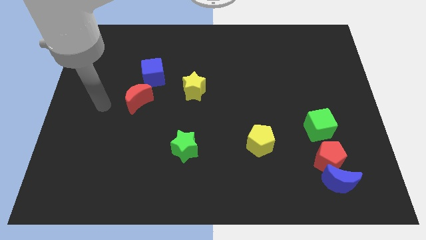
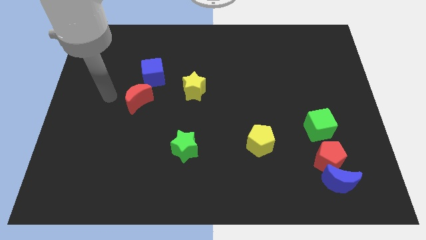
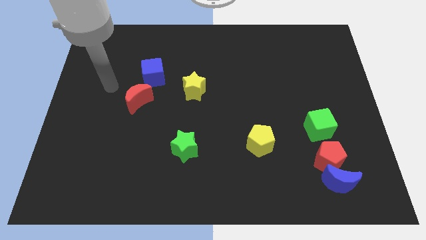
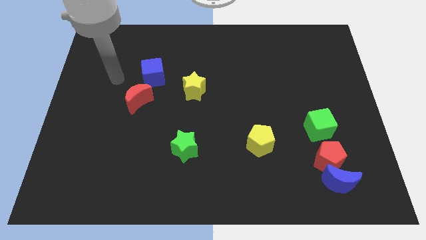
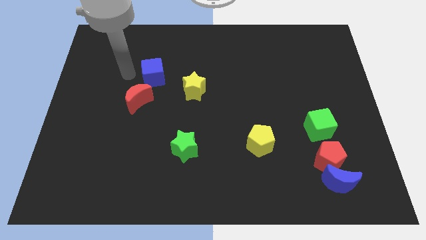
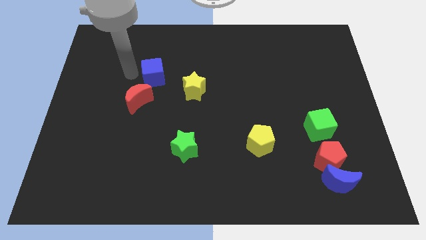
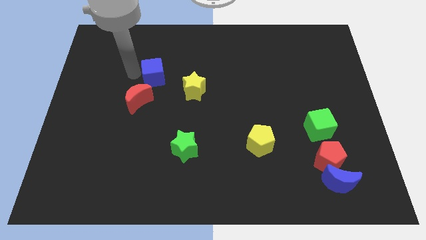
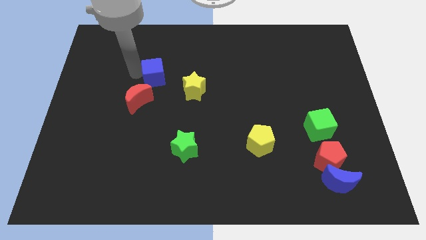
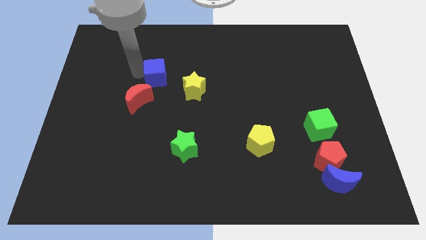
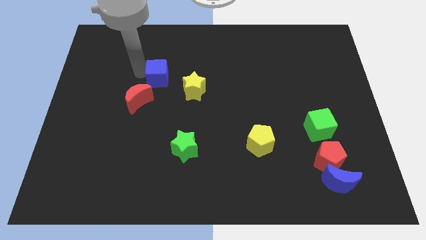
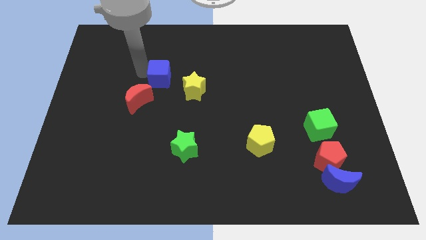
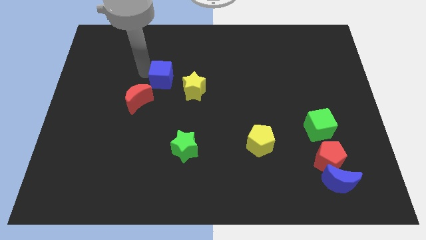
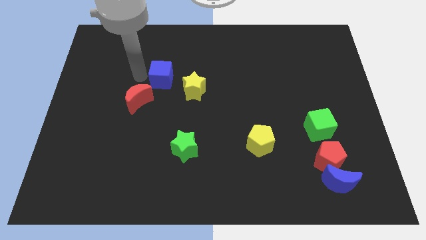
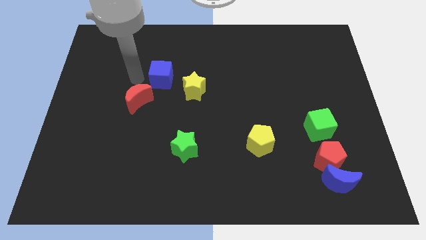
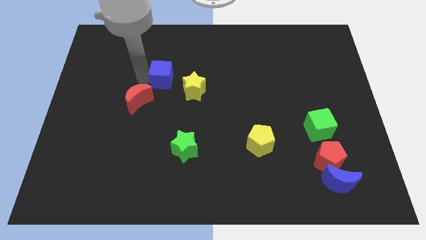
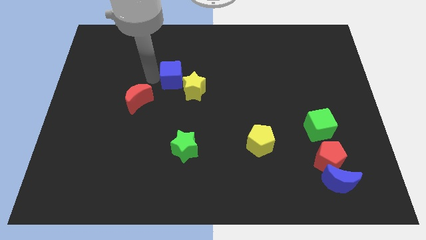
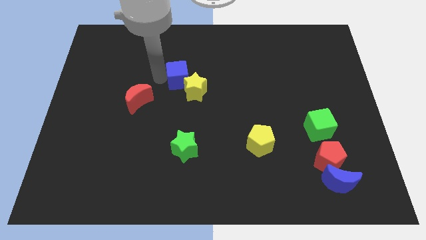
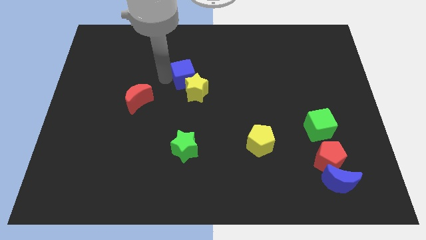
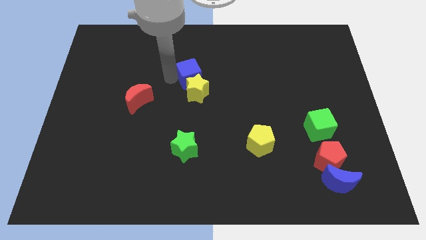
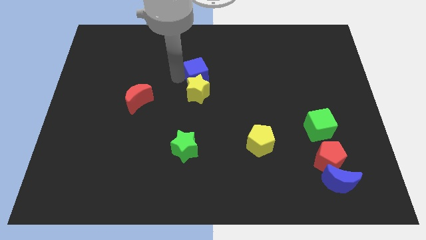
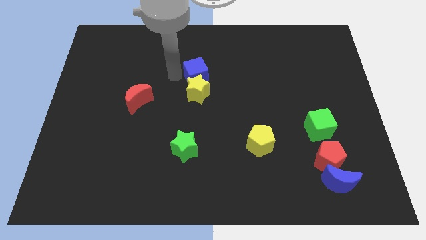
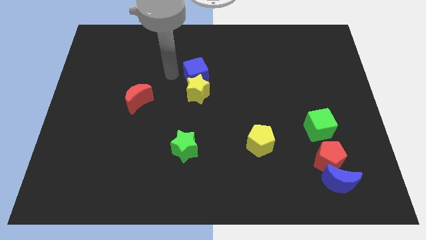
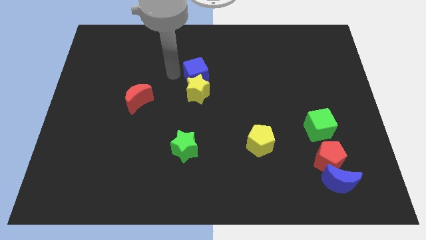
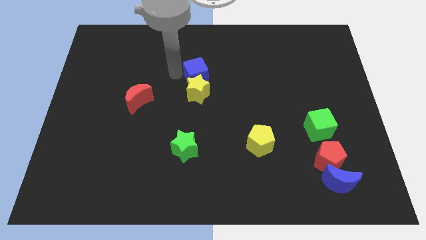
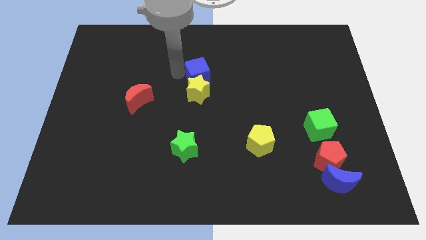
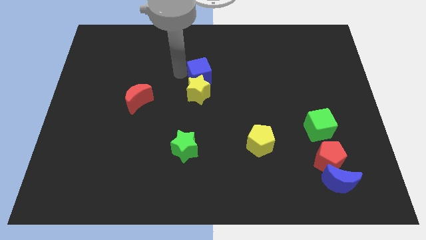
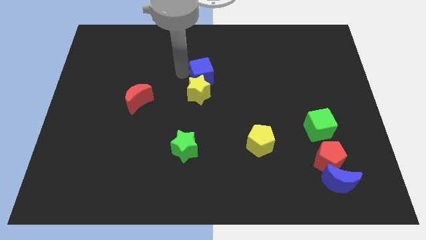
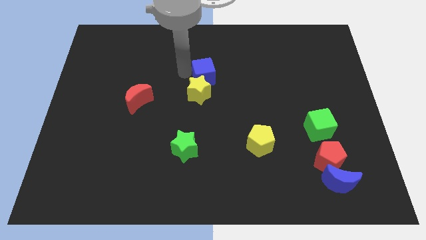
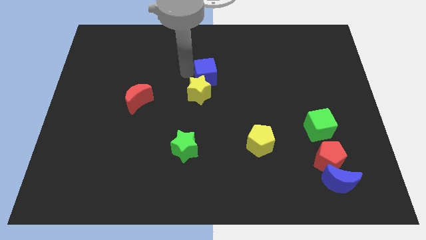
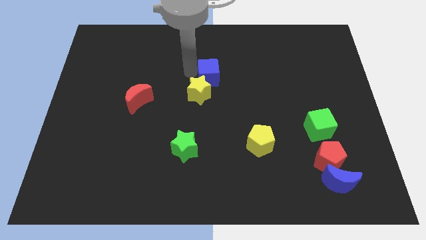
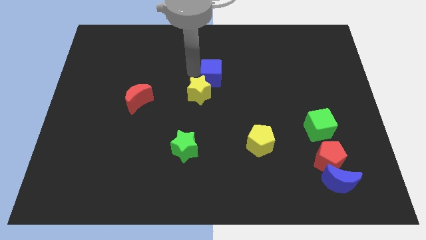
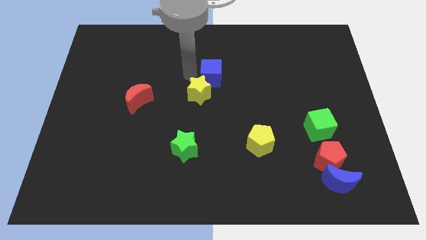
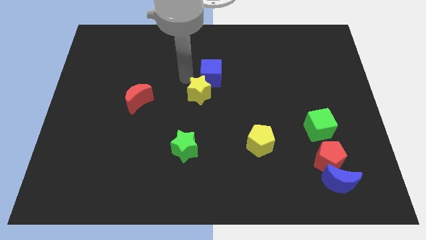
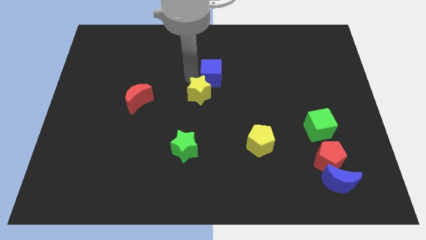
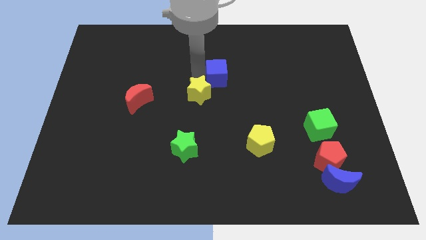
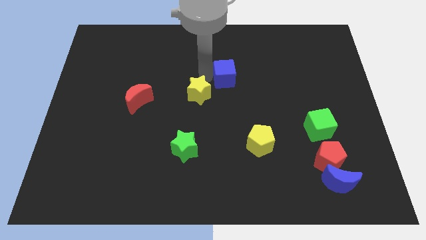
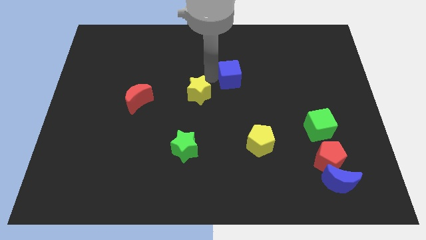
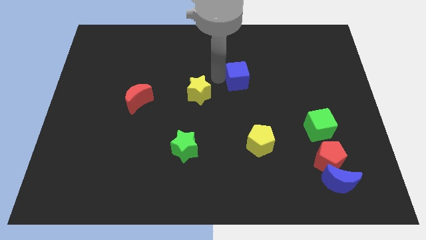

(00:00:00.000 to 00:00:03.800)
move the blue cube right

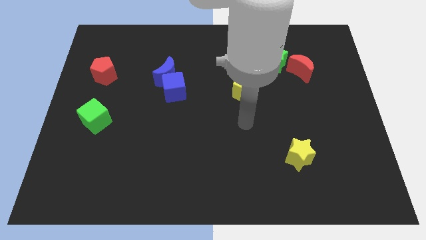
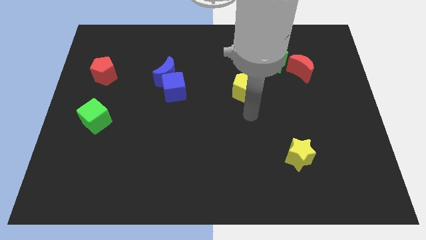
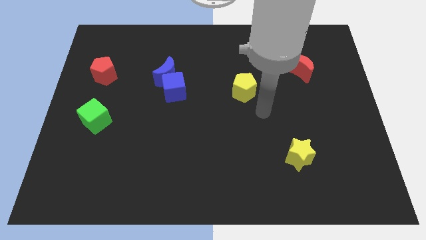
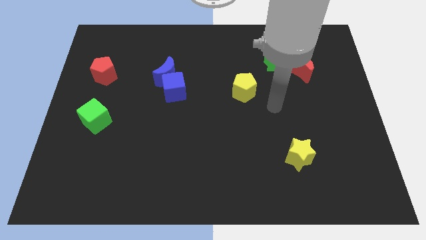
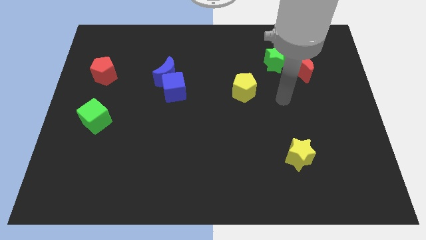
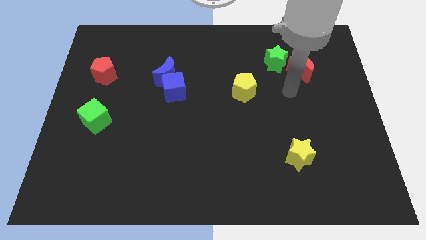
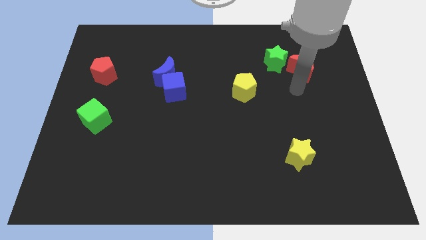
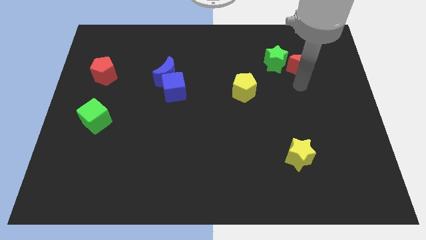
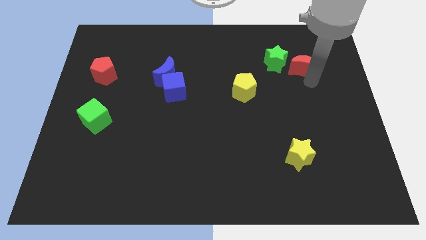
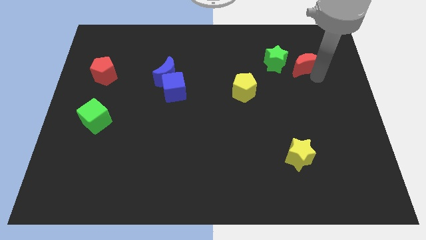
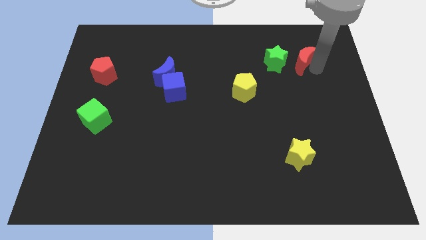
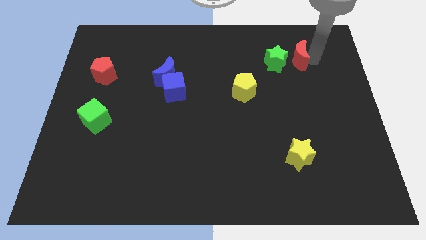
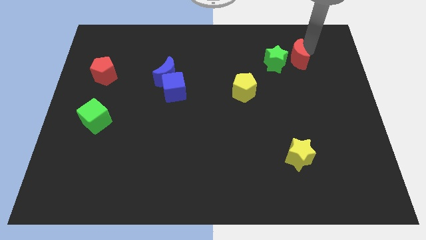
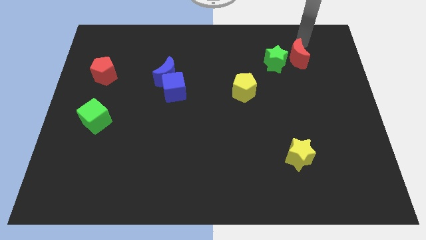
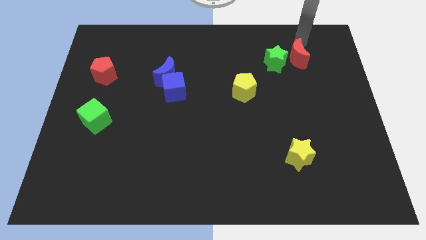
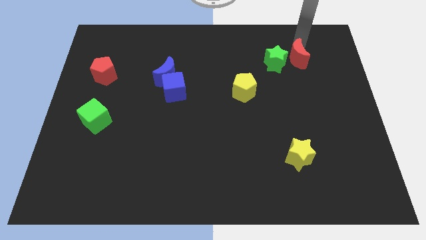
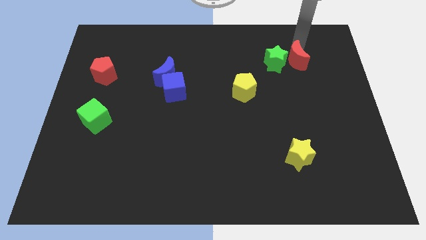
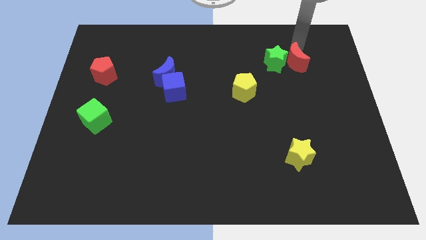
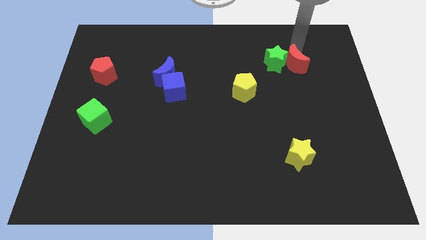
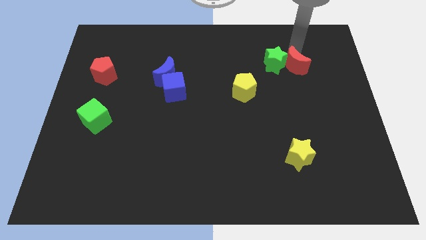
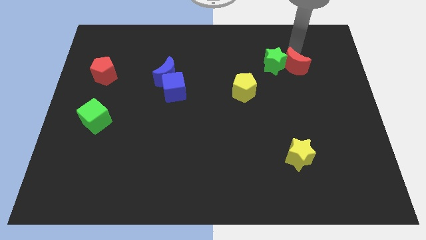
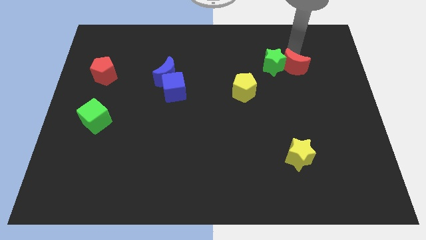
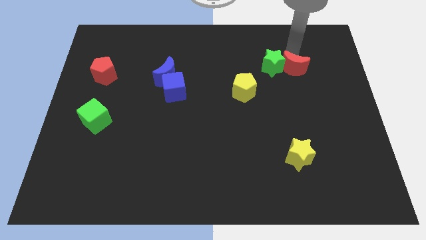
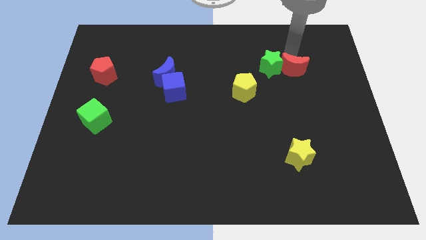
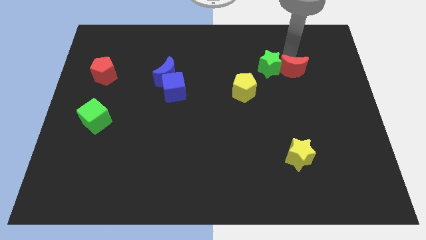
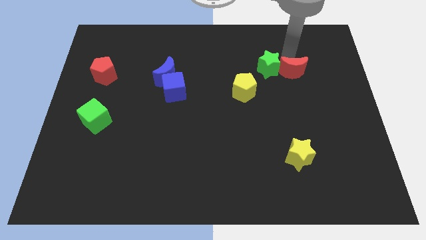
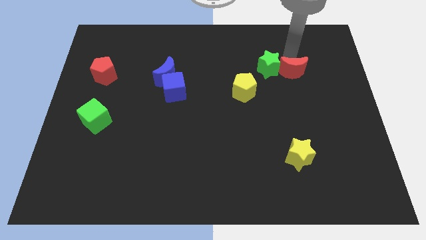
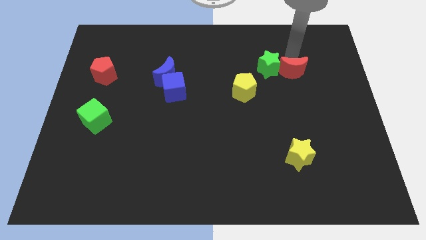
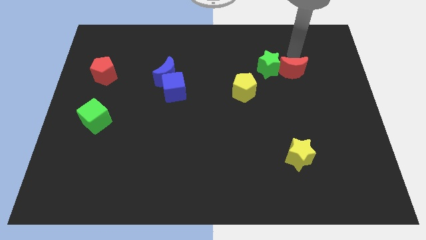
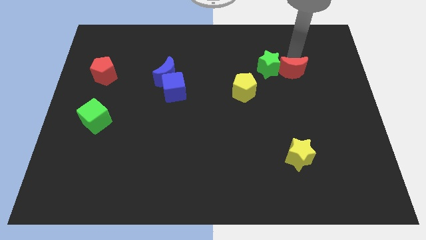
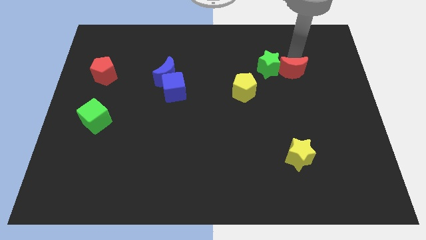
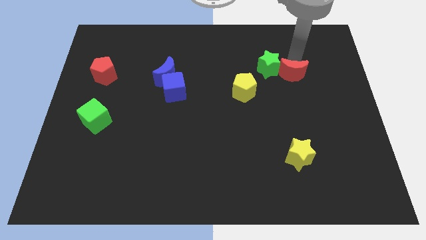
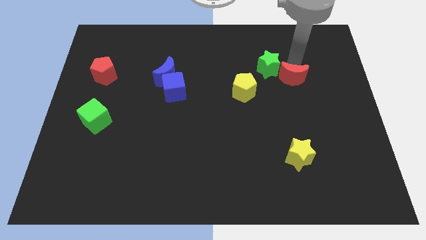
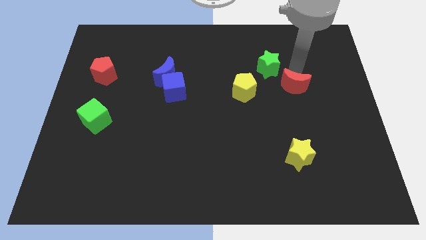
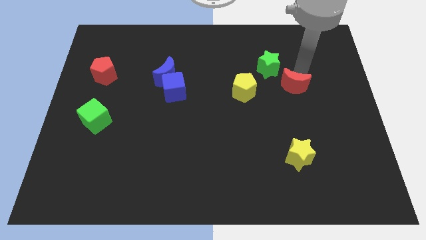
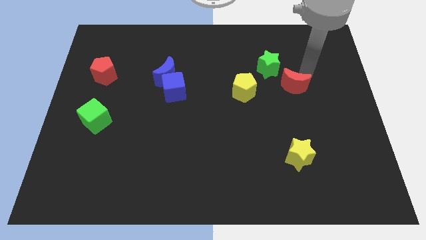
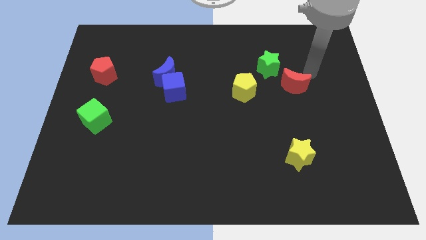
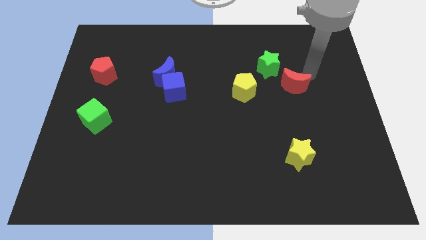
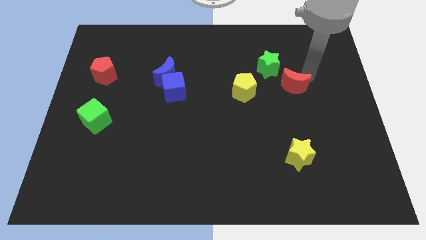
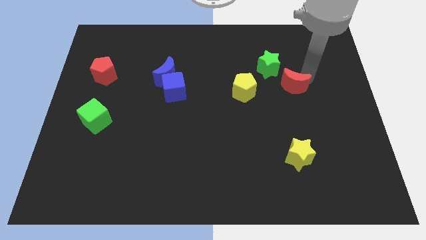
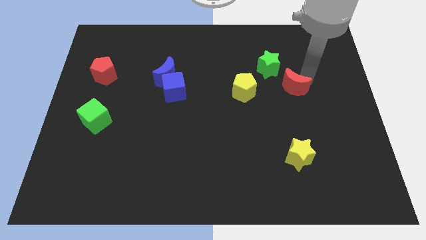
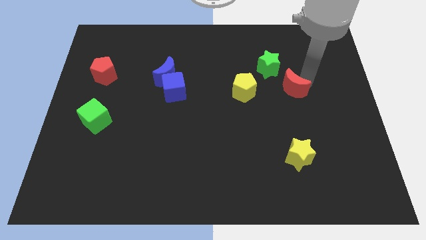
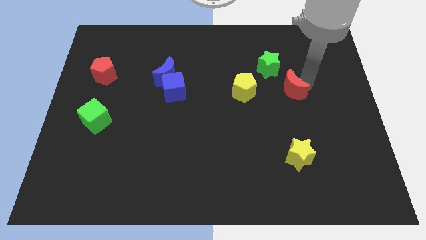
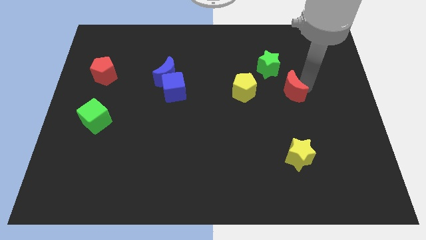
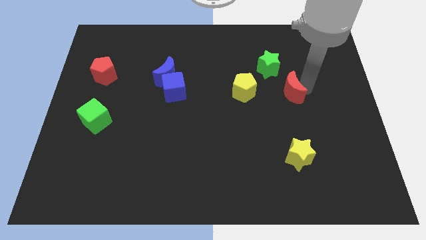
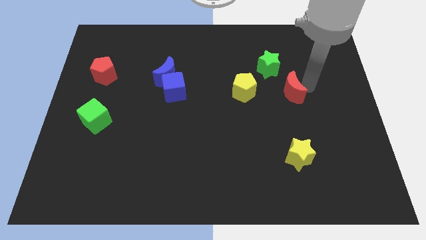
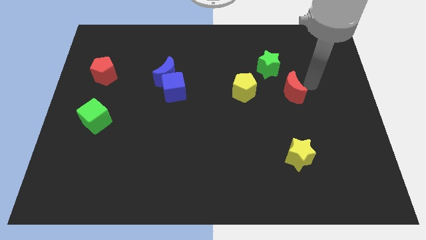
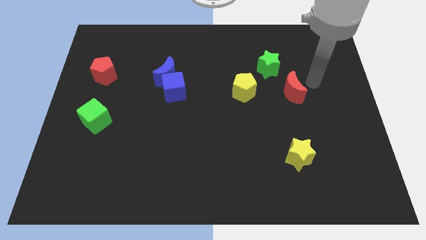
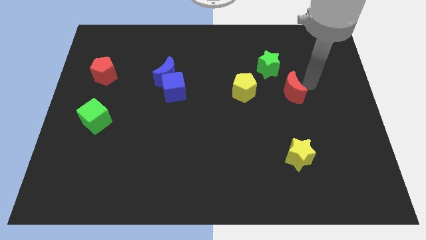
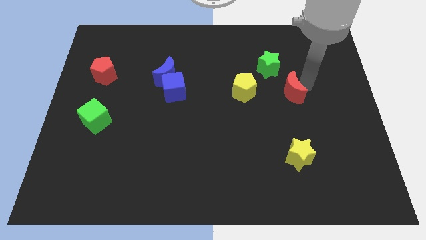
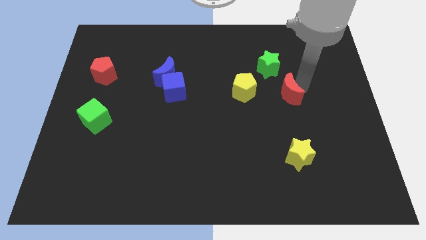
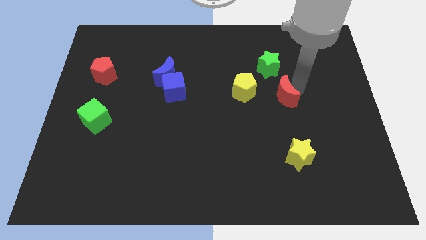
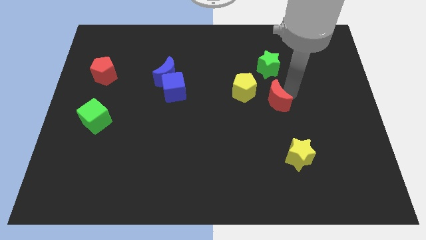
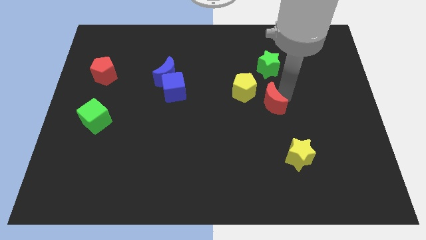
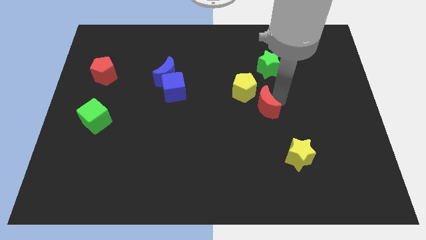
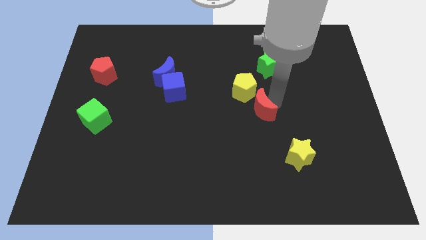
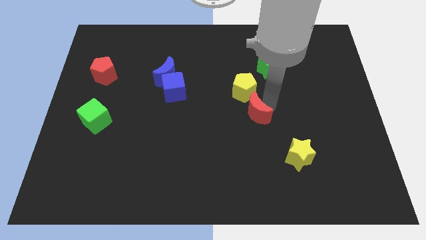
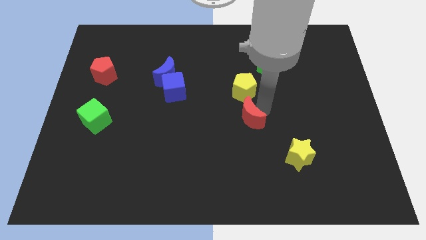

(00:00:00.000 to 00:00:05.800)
slide the red moon downwards and then left
